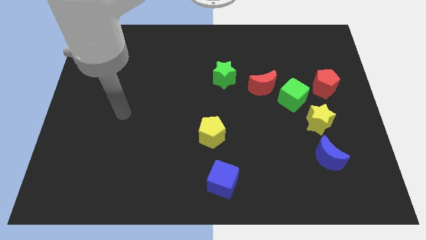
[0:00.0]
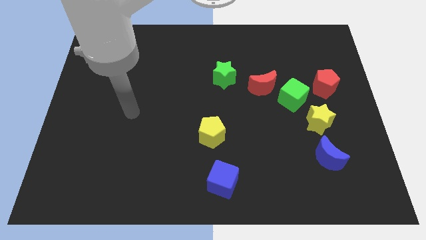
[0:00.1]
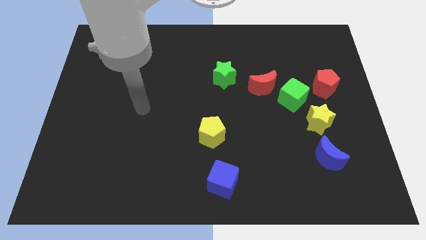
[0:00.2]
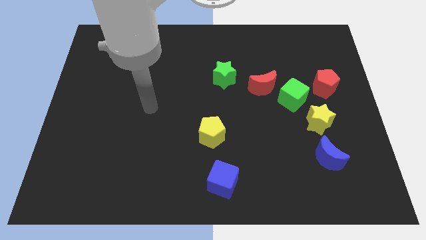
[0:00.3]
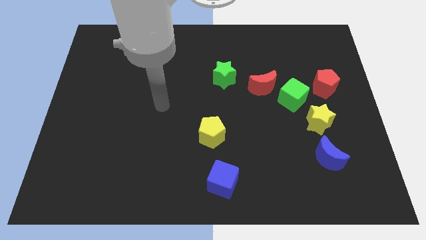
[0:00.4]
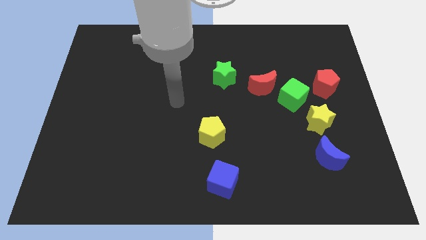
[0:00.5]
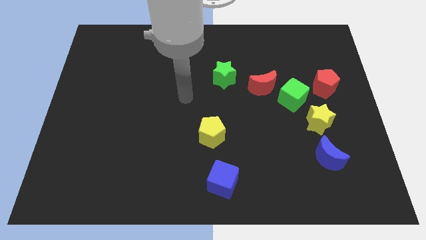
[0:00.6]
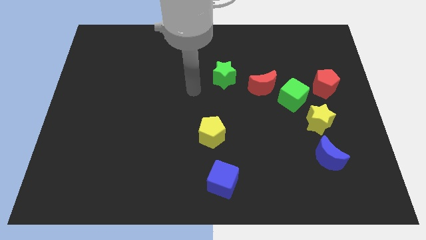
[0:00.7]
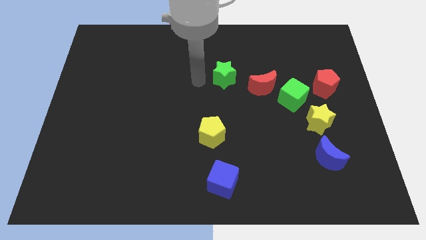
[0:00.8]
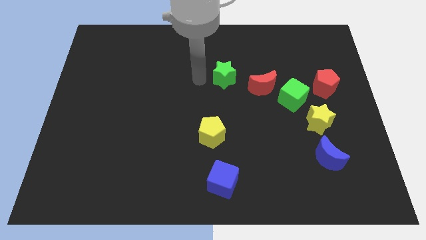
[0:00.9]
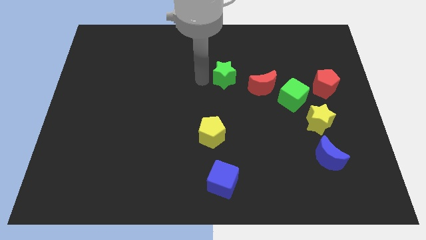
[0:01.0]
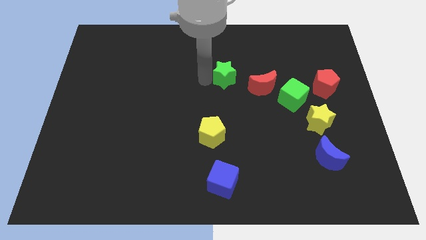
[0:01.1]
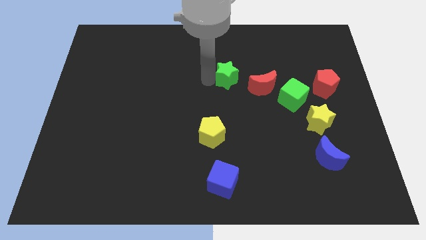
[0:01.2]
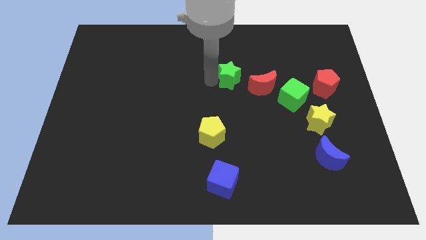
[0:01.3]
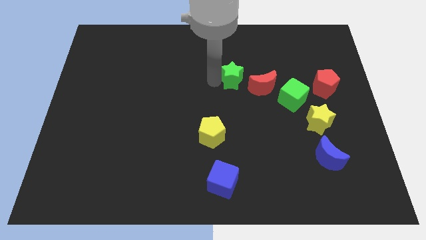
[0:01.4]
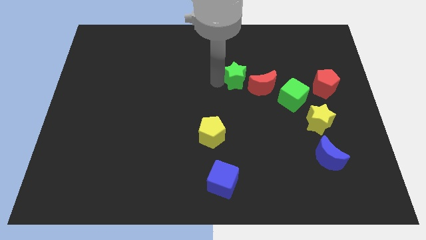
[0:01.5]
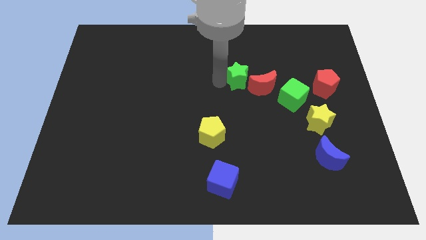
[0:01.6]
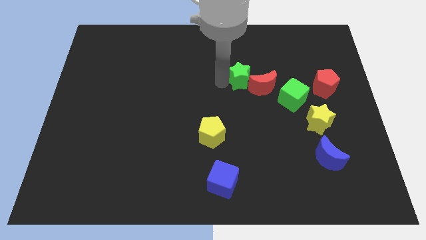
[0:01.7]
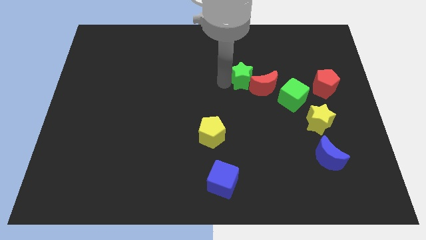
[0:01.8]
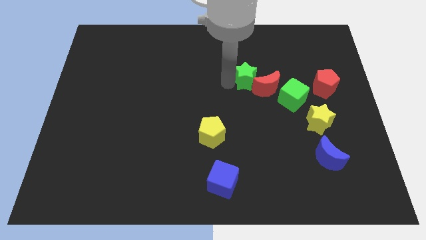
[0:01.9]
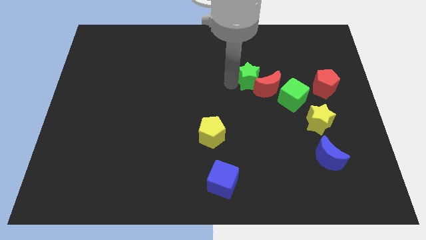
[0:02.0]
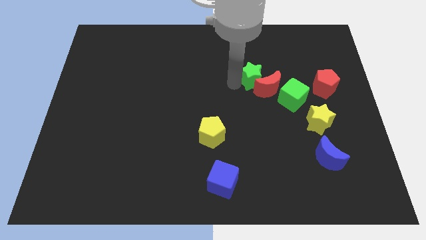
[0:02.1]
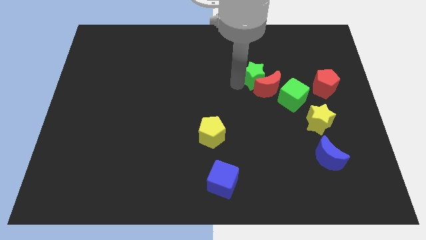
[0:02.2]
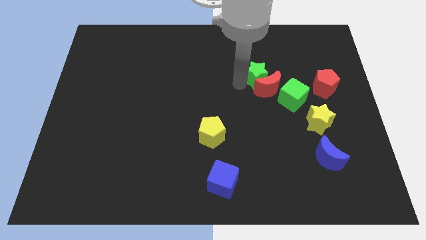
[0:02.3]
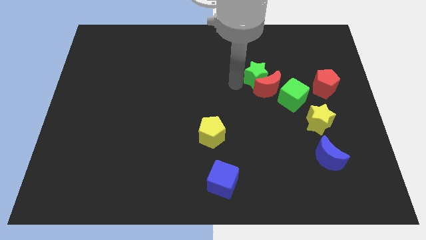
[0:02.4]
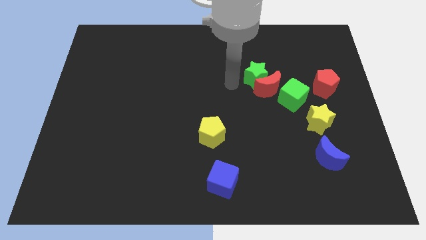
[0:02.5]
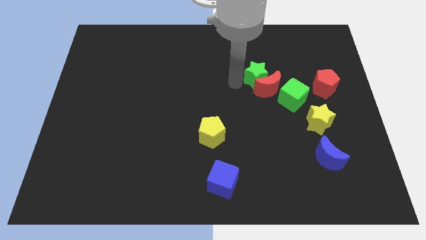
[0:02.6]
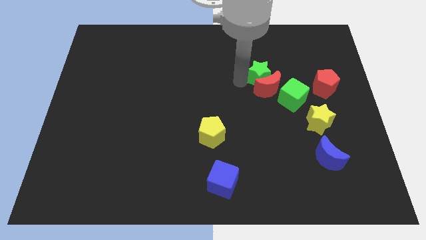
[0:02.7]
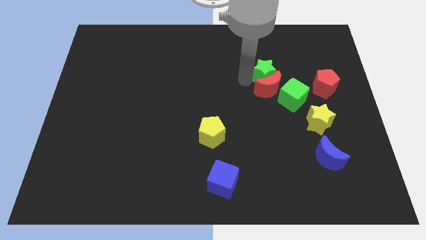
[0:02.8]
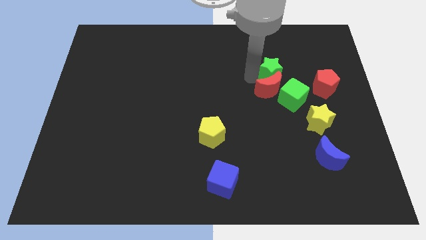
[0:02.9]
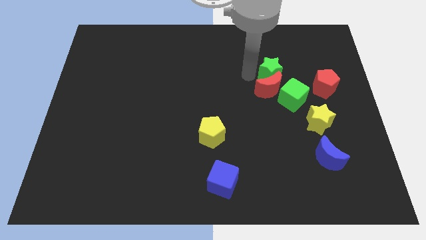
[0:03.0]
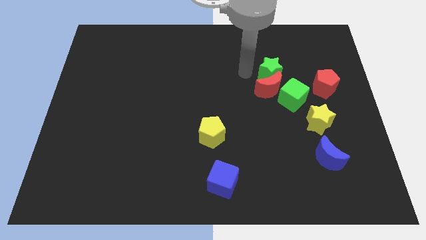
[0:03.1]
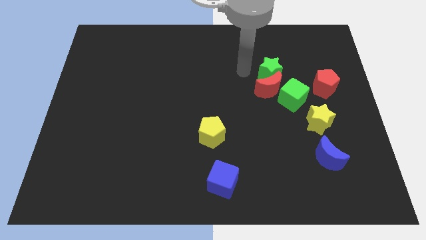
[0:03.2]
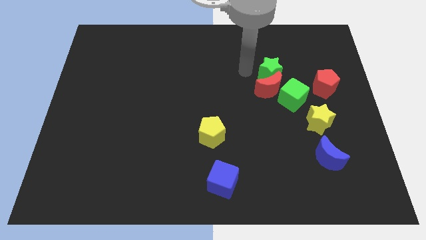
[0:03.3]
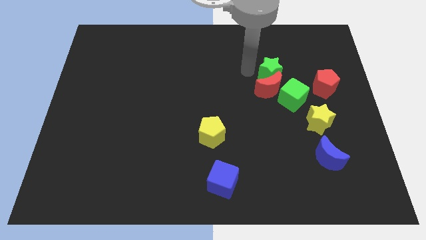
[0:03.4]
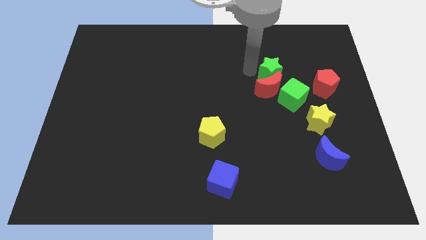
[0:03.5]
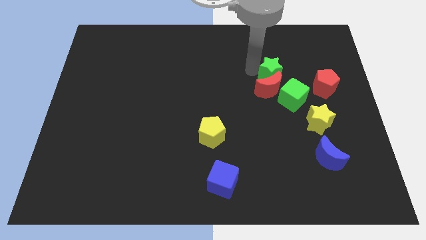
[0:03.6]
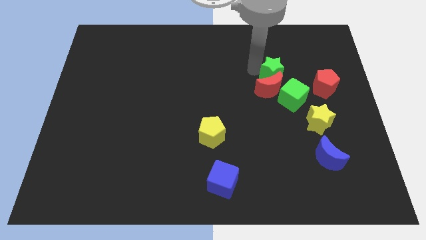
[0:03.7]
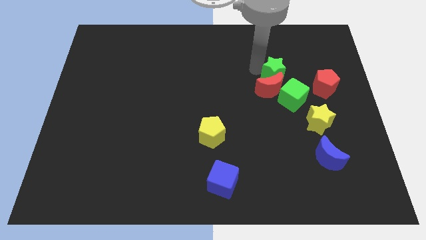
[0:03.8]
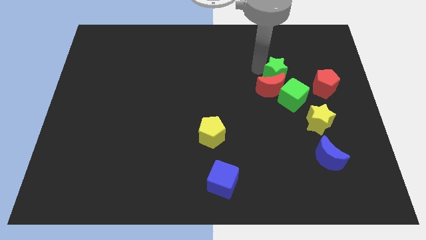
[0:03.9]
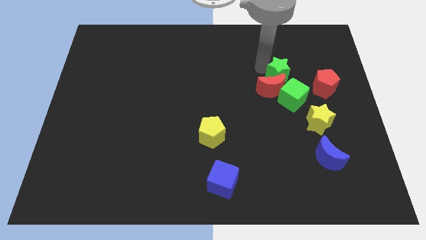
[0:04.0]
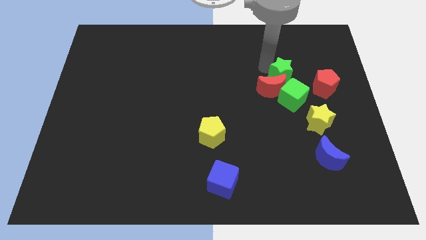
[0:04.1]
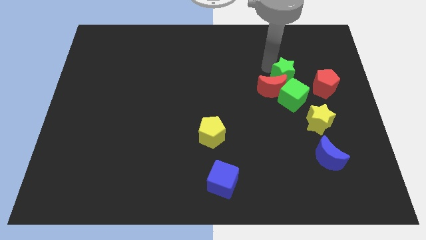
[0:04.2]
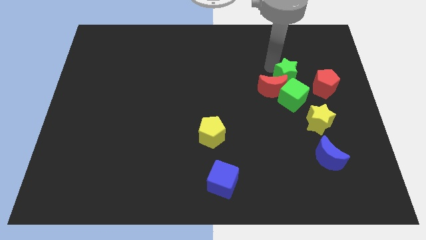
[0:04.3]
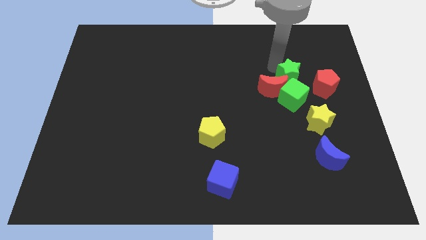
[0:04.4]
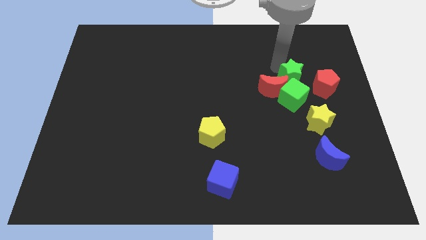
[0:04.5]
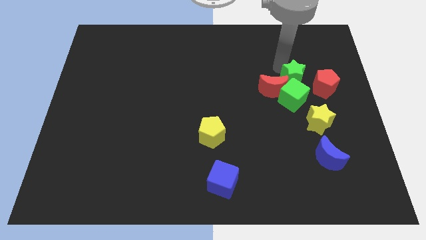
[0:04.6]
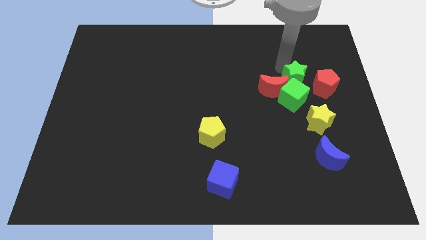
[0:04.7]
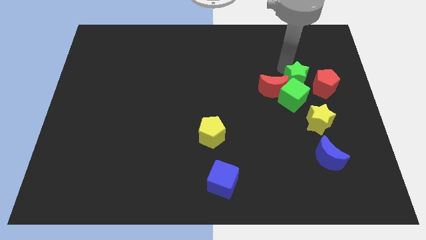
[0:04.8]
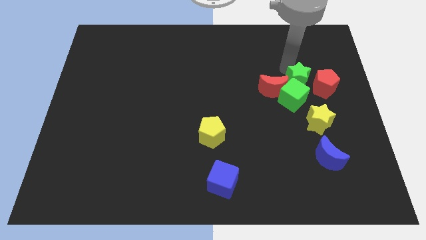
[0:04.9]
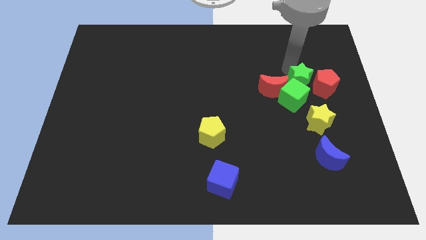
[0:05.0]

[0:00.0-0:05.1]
put the green star next to the red pentagon

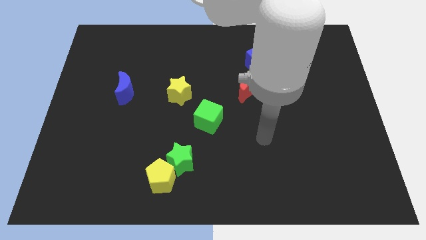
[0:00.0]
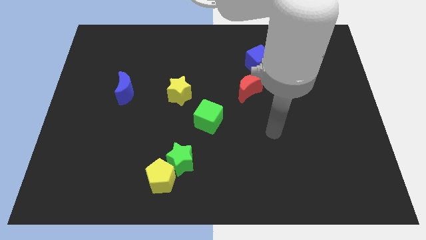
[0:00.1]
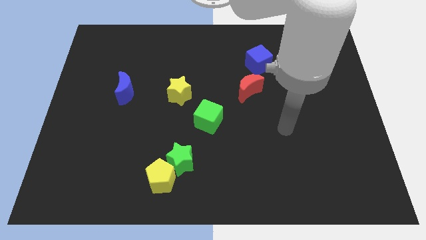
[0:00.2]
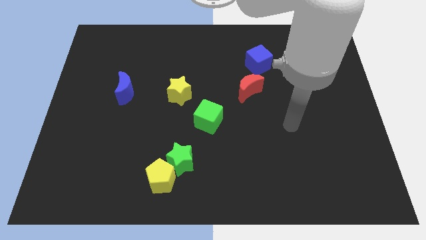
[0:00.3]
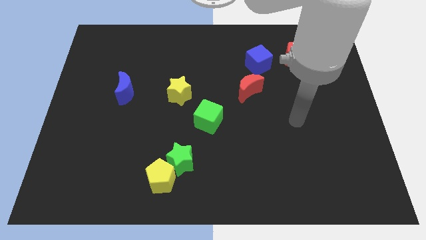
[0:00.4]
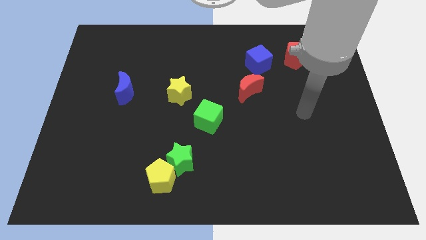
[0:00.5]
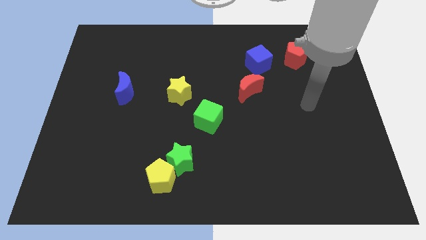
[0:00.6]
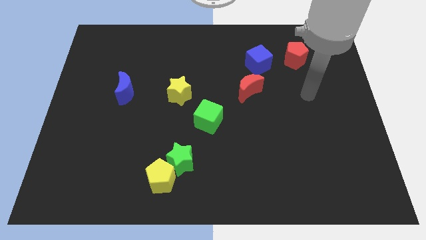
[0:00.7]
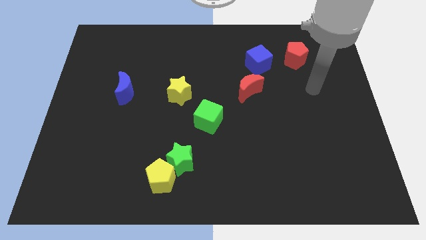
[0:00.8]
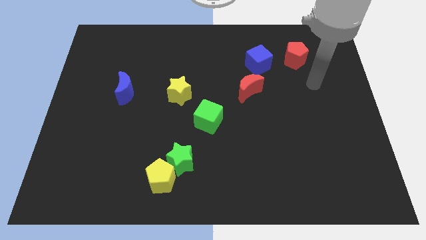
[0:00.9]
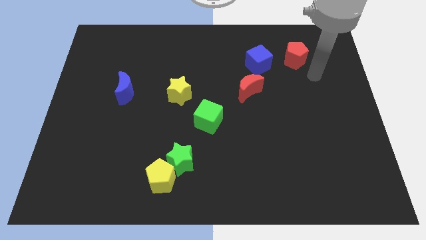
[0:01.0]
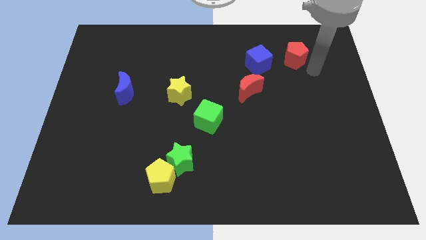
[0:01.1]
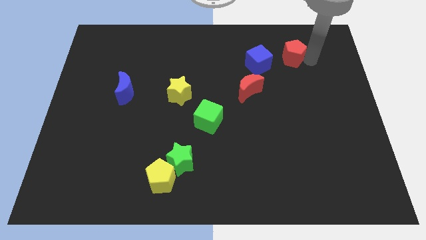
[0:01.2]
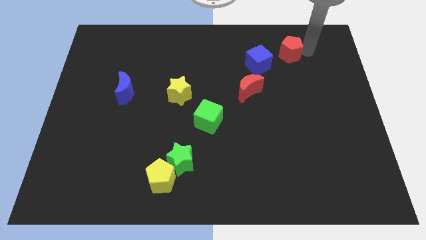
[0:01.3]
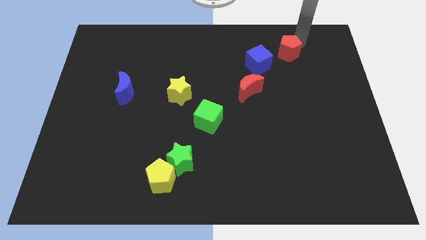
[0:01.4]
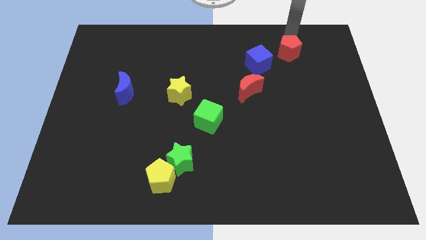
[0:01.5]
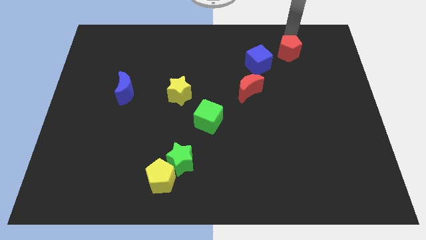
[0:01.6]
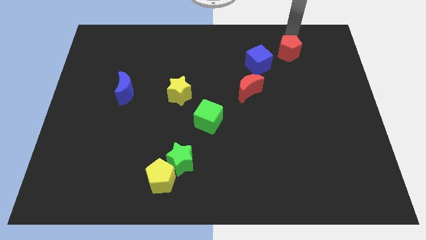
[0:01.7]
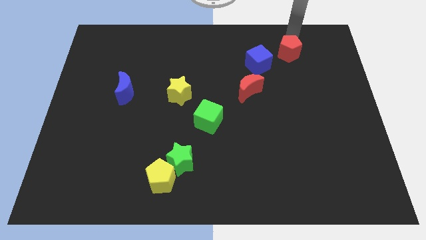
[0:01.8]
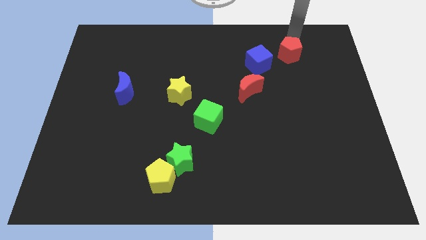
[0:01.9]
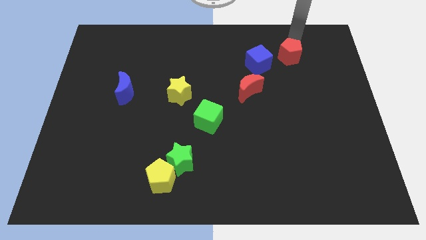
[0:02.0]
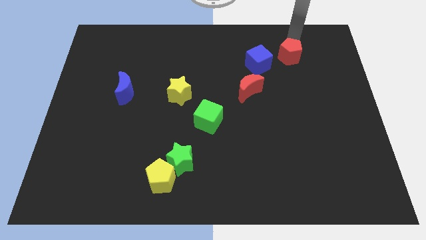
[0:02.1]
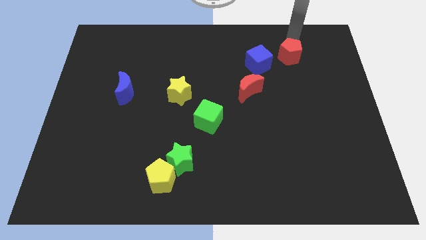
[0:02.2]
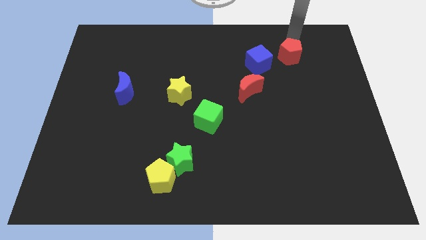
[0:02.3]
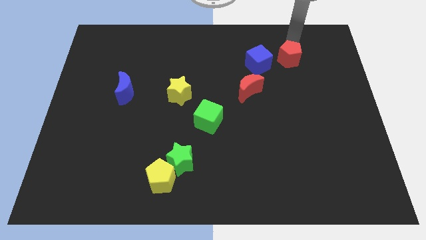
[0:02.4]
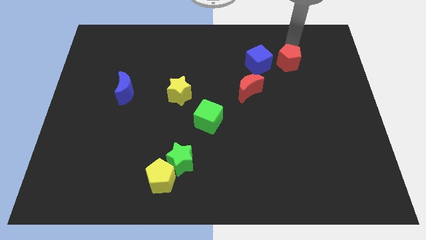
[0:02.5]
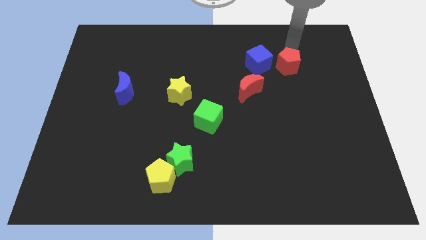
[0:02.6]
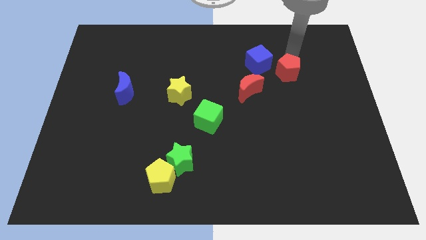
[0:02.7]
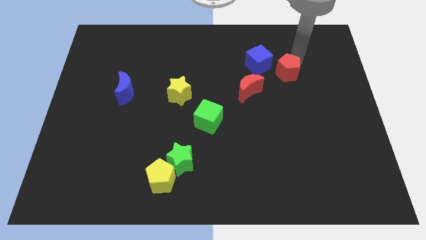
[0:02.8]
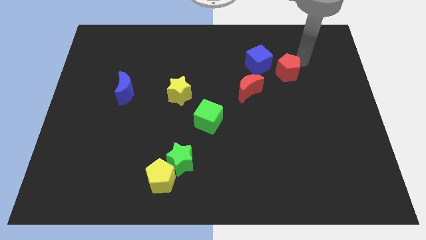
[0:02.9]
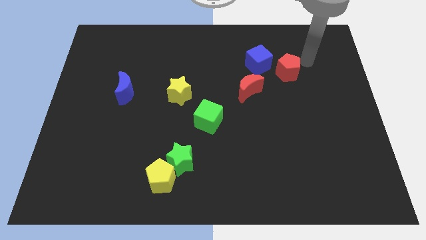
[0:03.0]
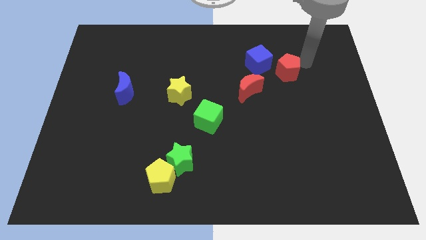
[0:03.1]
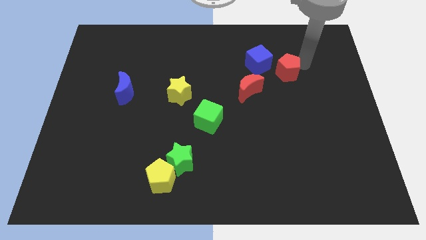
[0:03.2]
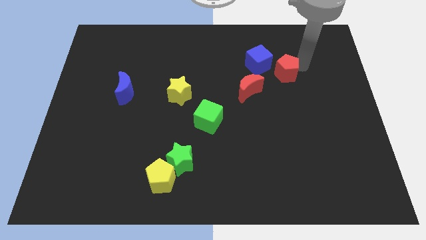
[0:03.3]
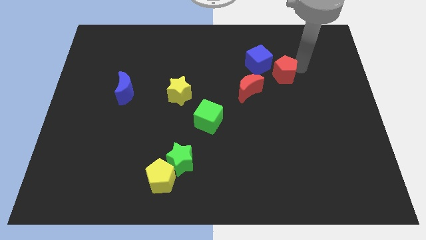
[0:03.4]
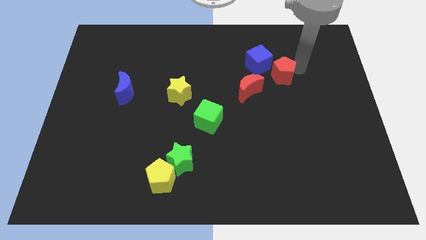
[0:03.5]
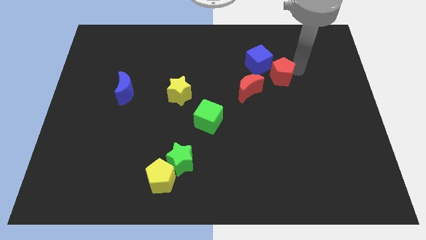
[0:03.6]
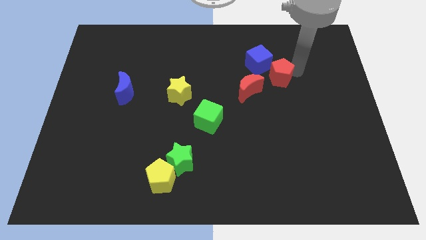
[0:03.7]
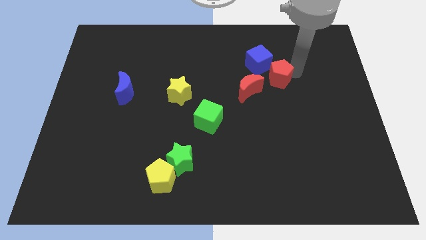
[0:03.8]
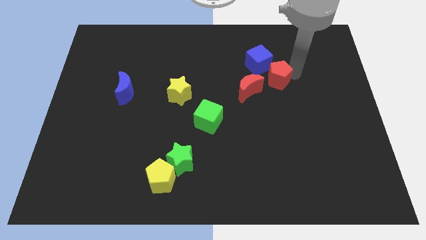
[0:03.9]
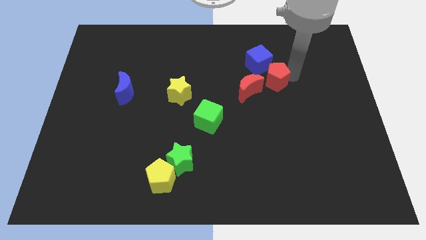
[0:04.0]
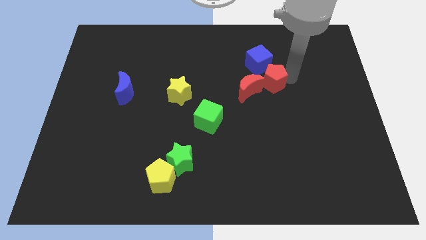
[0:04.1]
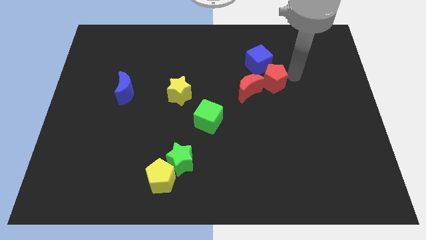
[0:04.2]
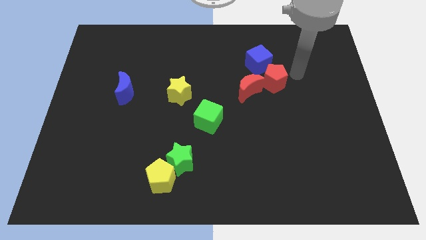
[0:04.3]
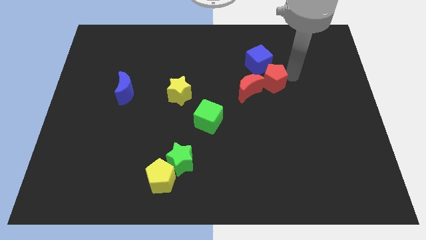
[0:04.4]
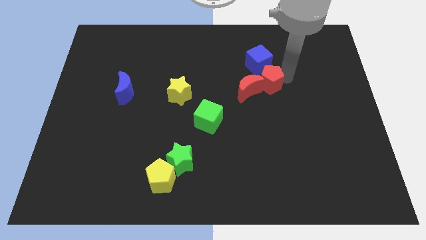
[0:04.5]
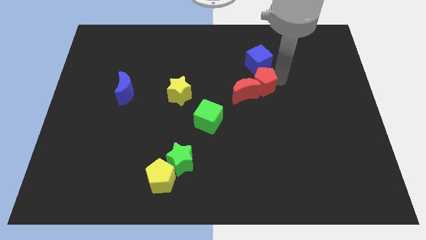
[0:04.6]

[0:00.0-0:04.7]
push the red pentagon next to the red moon
